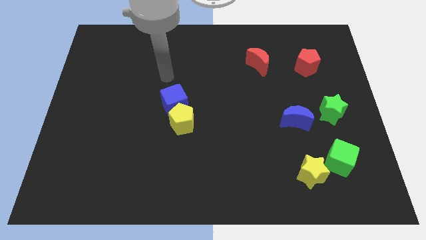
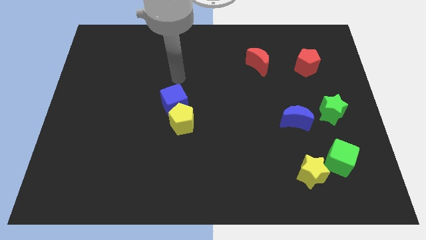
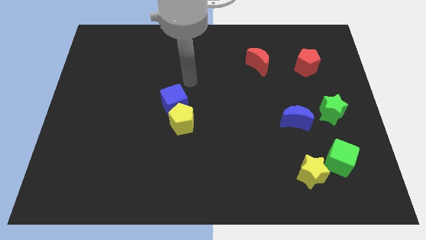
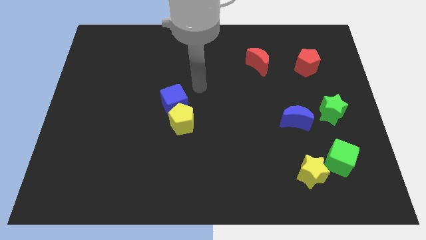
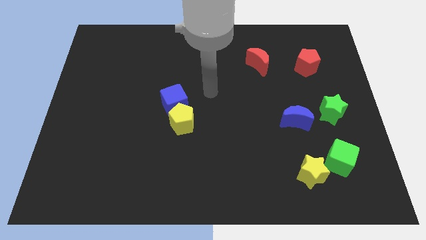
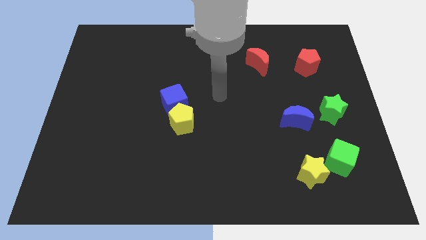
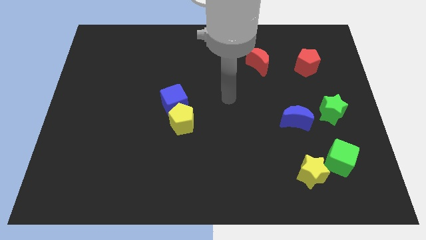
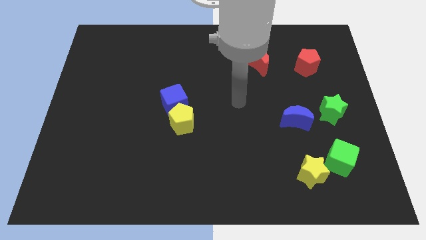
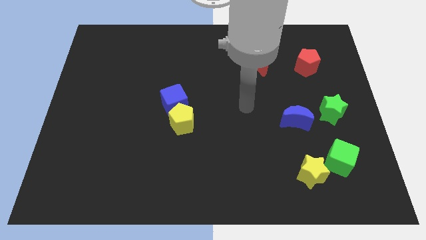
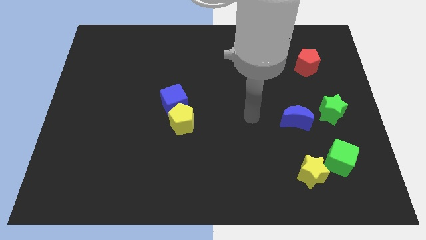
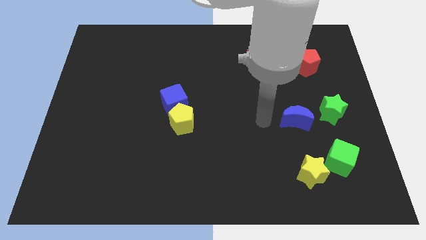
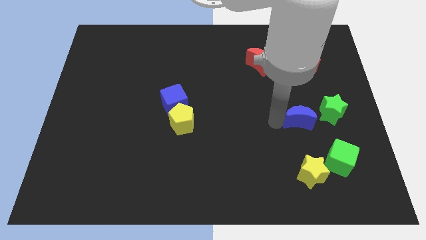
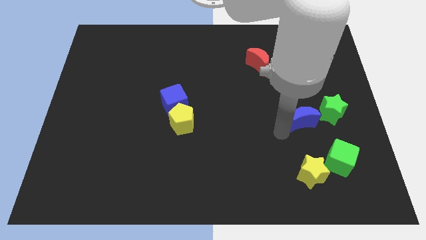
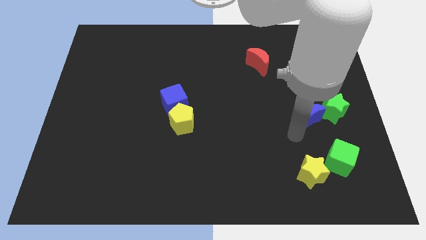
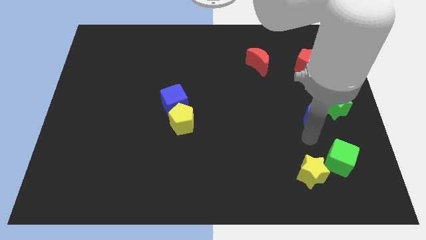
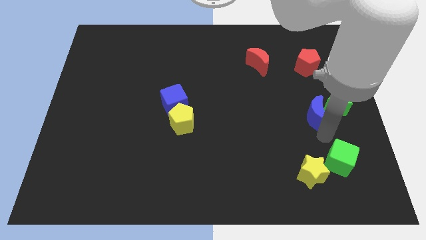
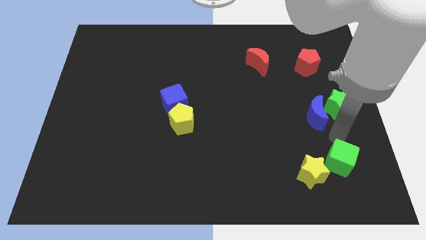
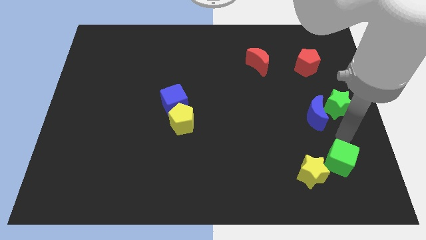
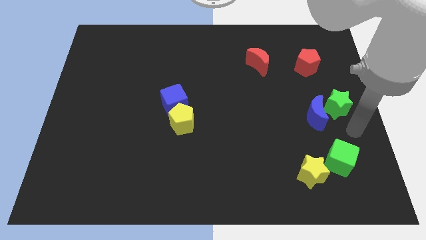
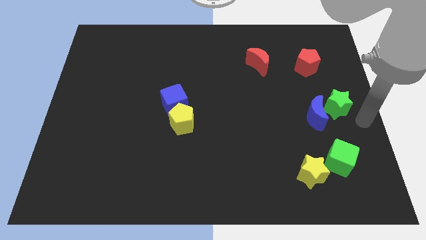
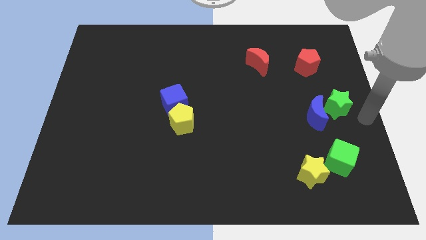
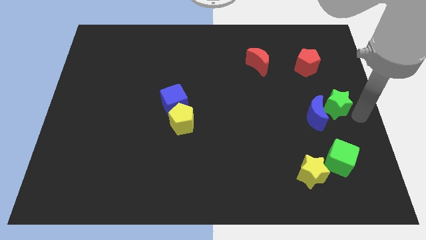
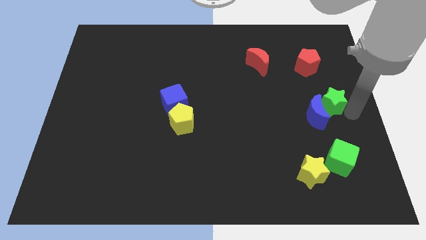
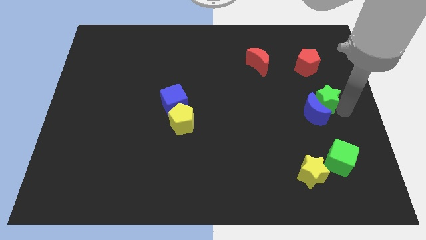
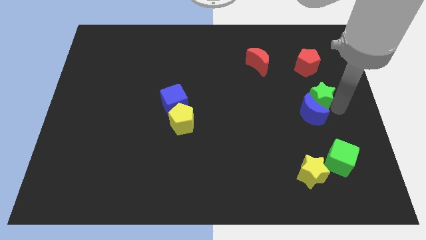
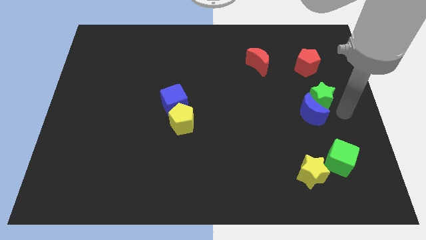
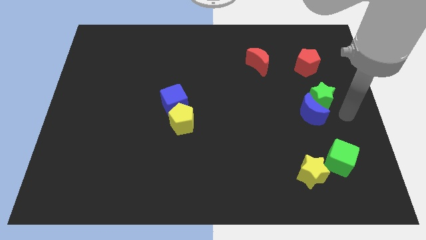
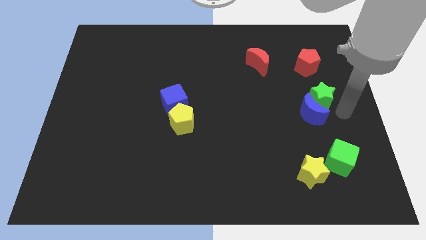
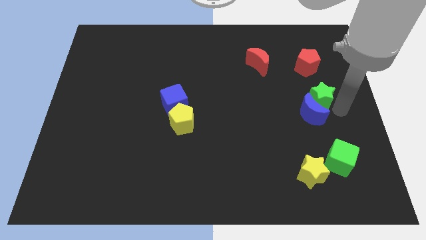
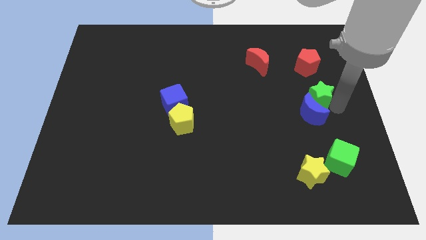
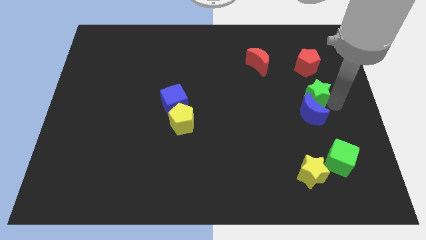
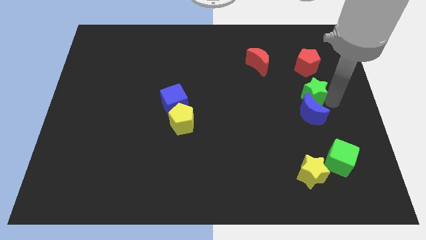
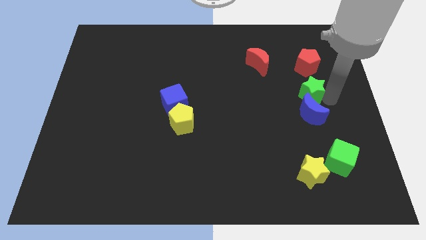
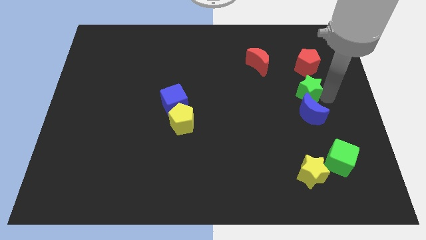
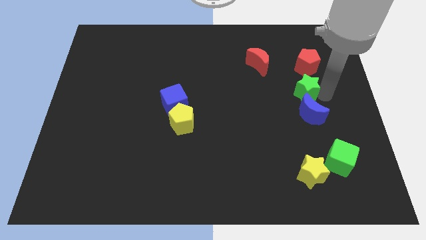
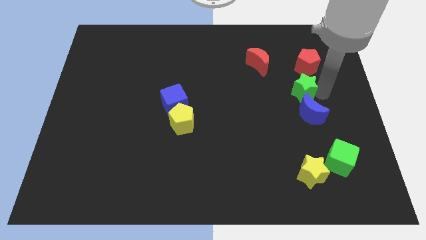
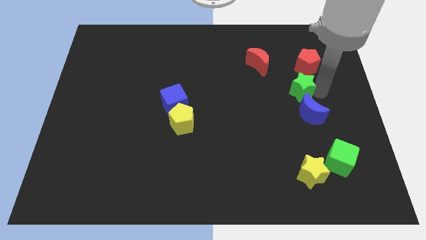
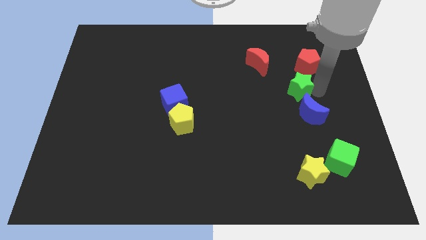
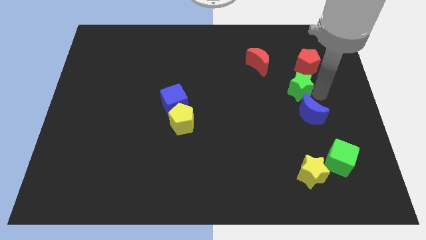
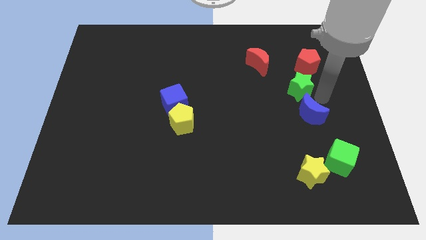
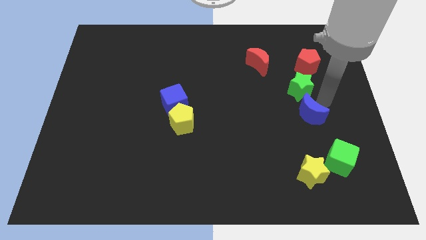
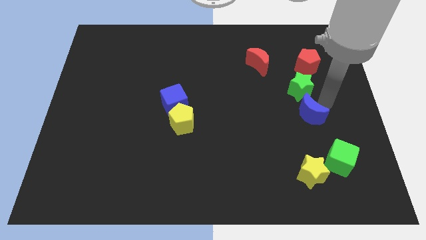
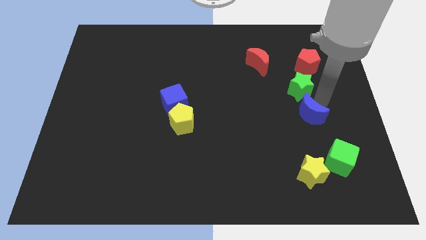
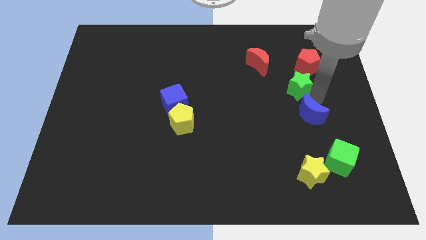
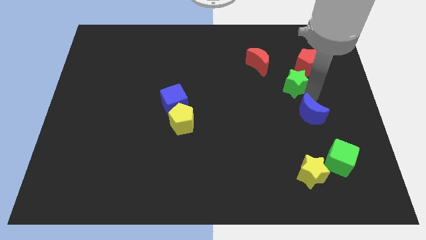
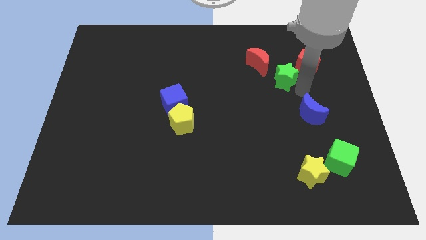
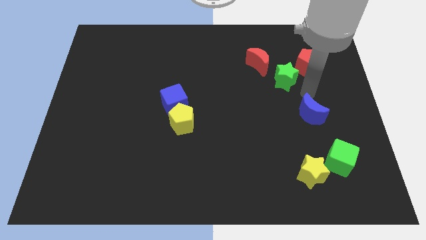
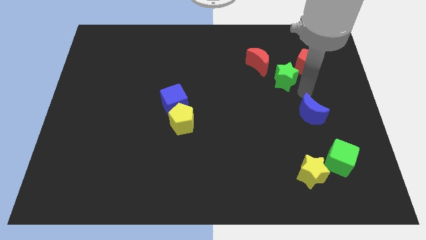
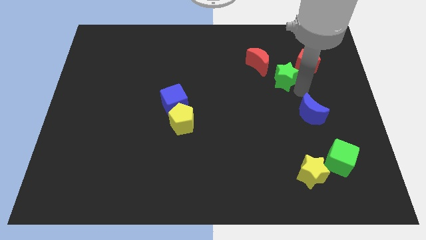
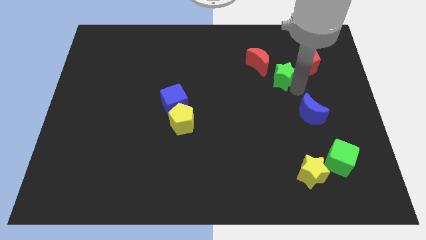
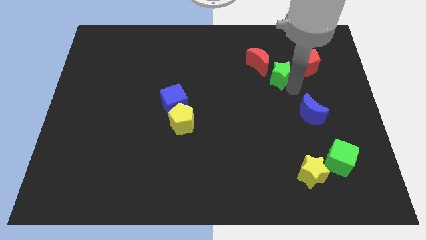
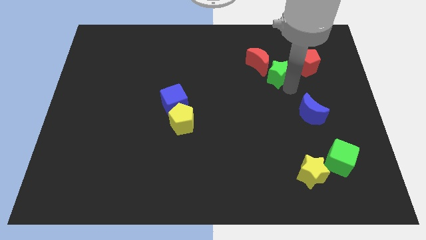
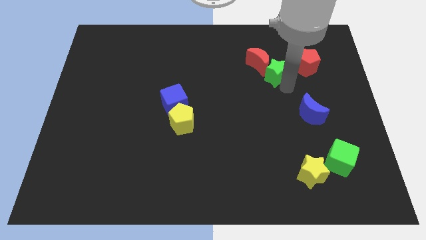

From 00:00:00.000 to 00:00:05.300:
move the green star towards the red moon

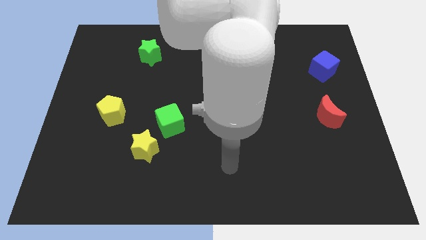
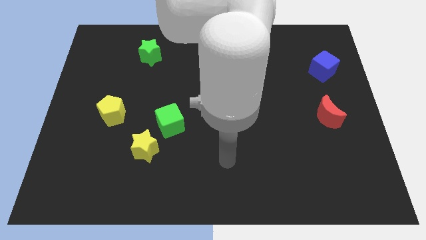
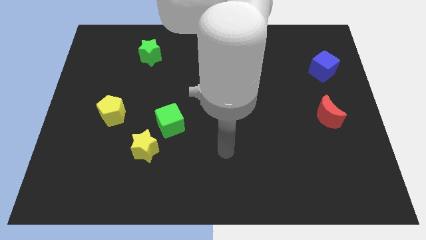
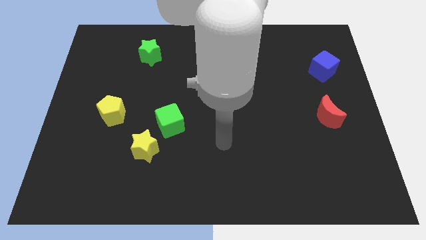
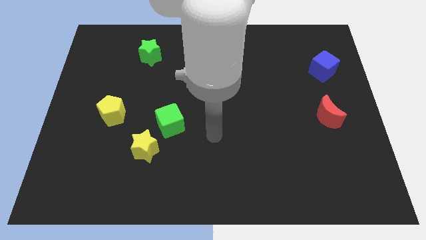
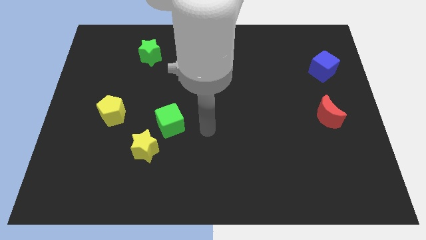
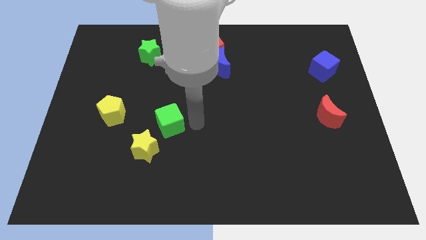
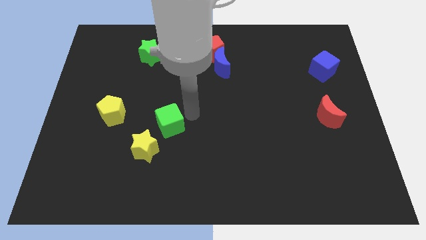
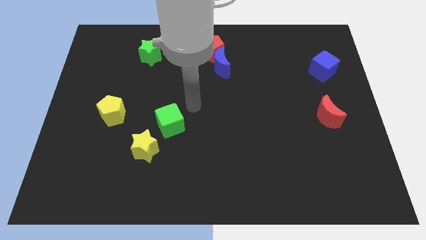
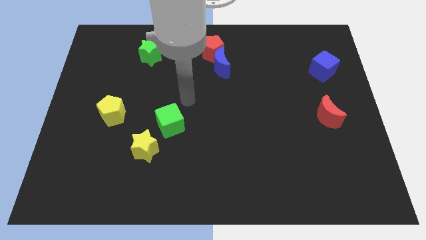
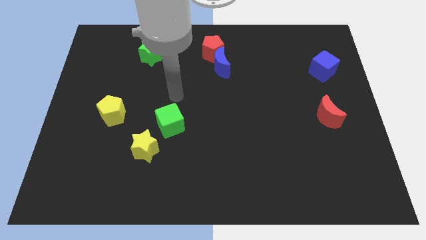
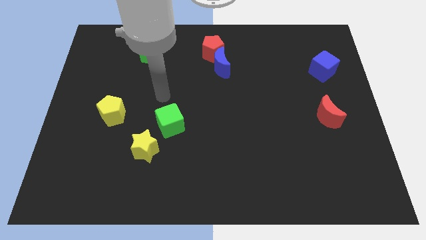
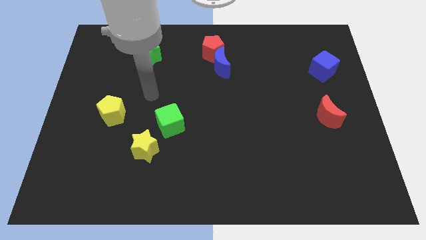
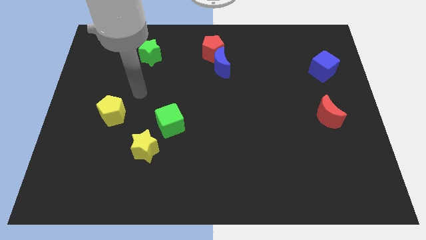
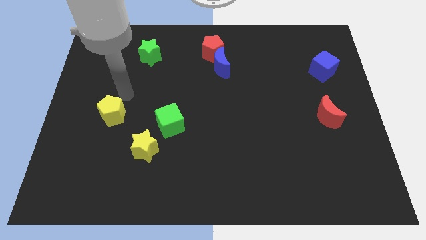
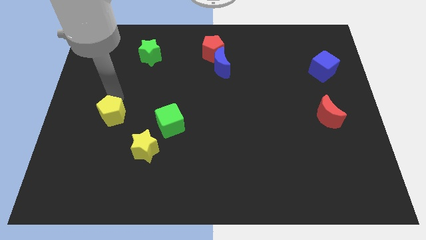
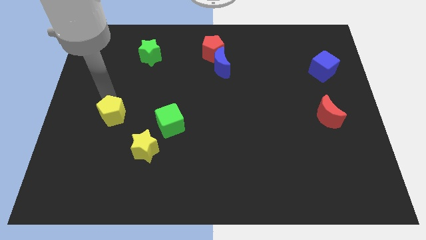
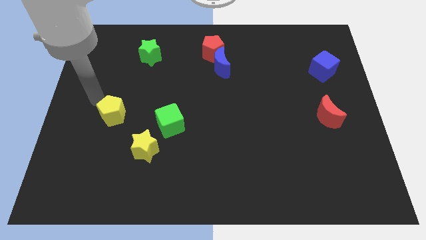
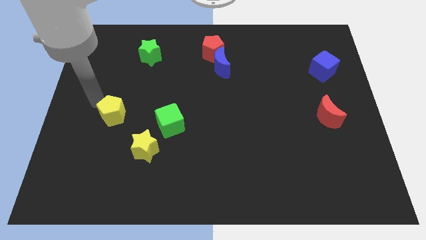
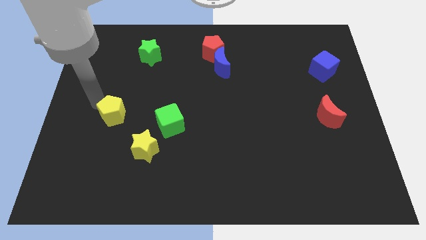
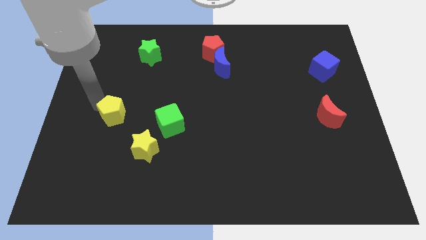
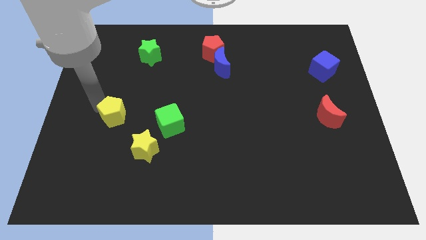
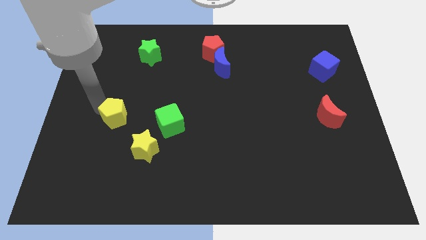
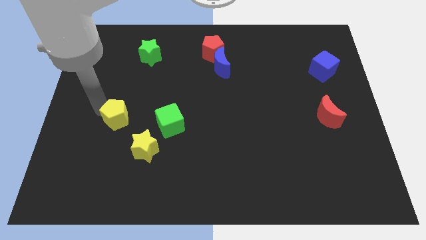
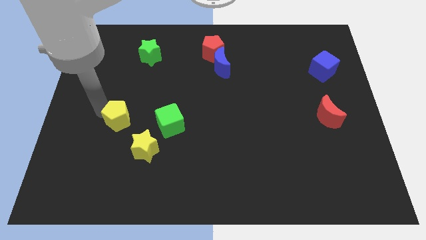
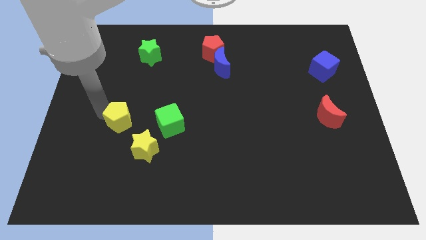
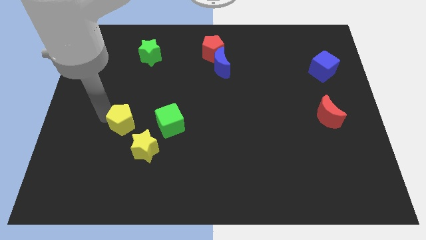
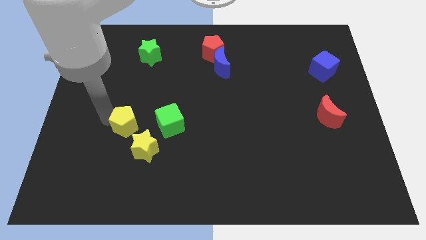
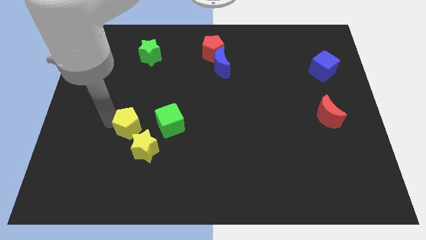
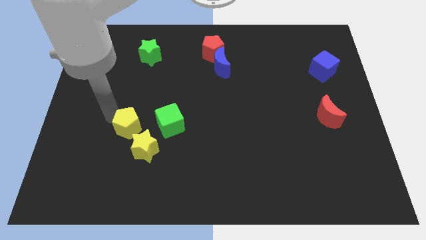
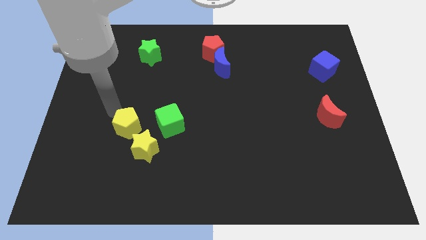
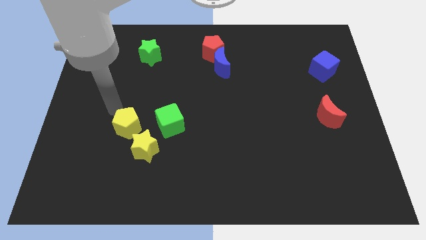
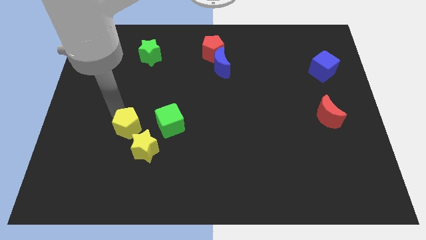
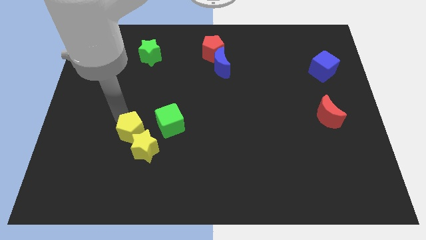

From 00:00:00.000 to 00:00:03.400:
push the yellow pentagon close to the yellow star
